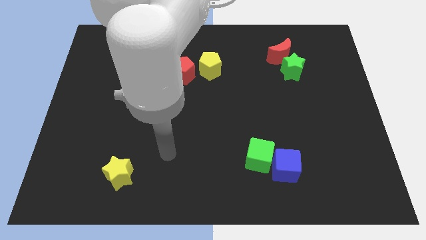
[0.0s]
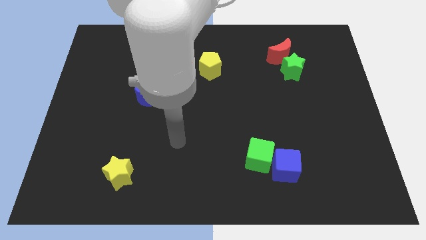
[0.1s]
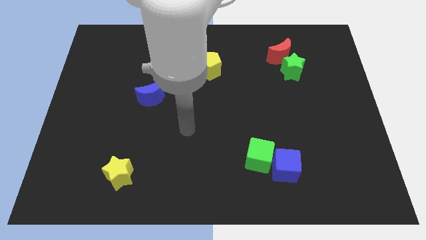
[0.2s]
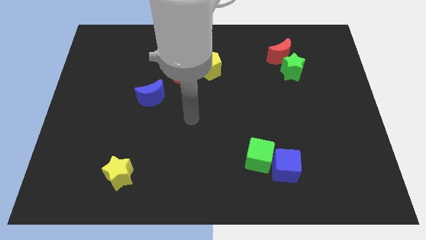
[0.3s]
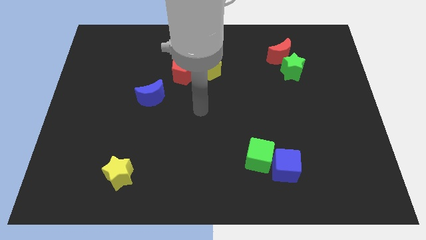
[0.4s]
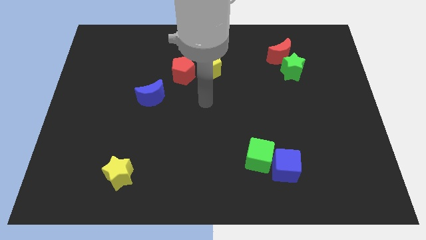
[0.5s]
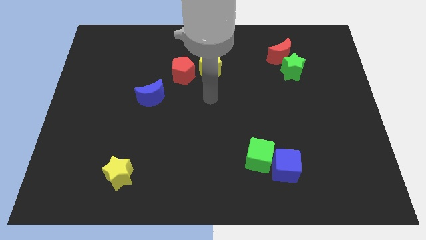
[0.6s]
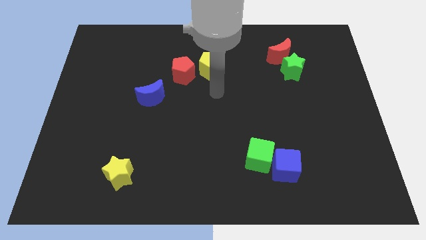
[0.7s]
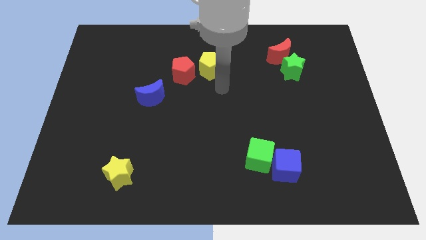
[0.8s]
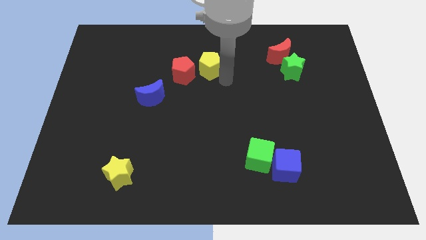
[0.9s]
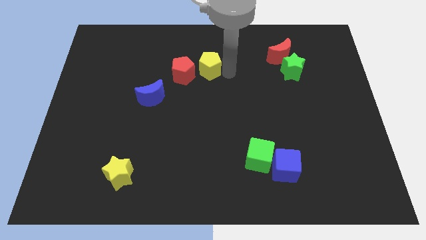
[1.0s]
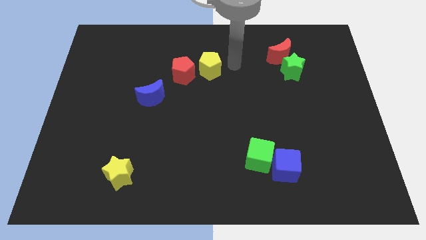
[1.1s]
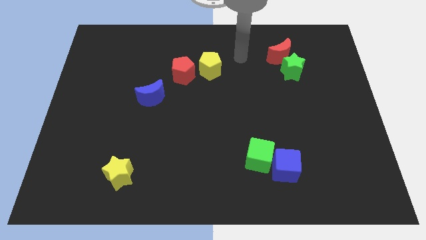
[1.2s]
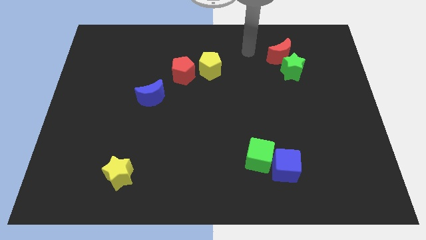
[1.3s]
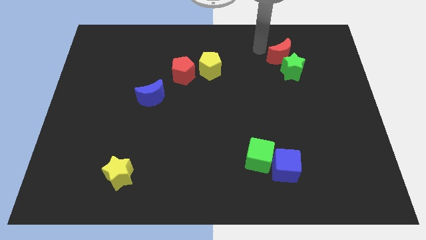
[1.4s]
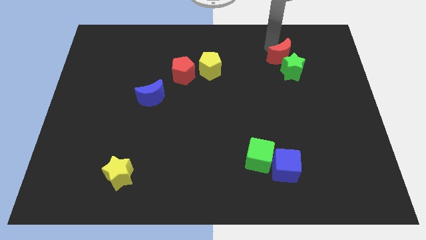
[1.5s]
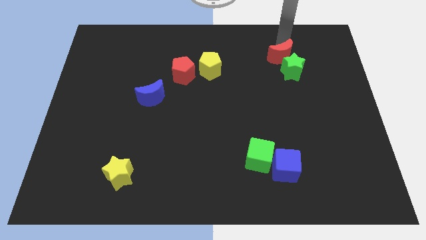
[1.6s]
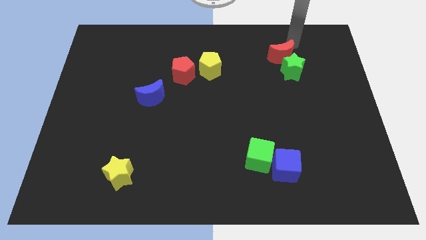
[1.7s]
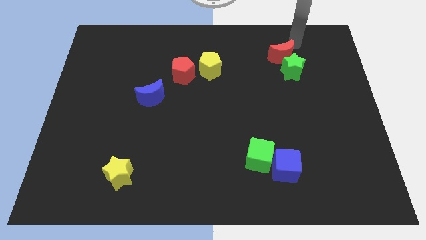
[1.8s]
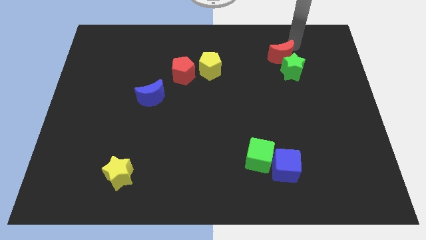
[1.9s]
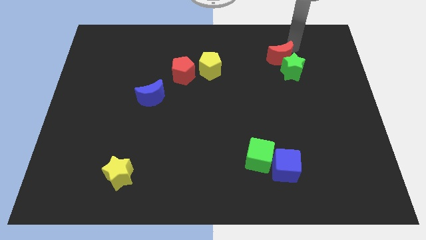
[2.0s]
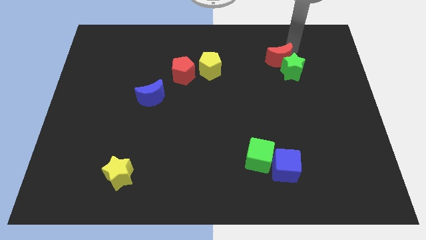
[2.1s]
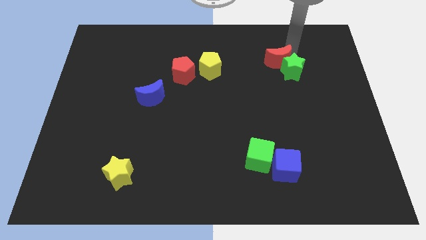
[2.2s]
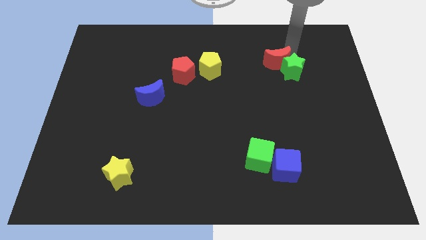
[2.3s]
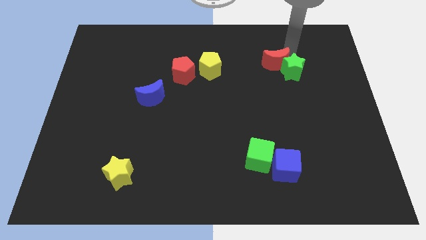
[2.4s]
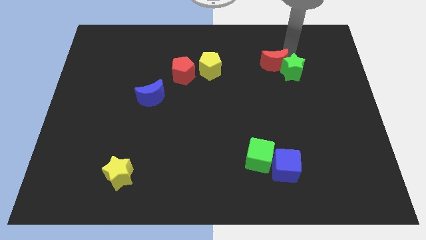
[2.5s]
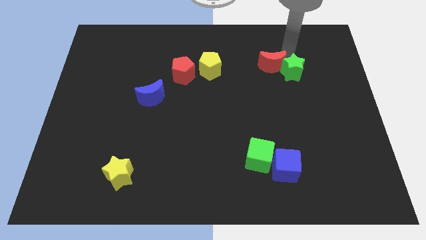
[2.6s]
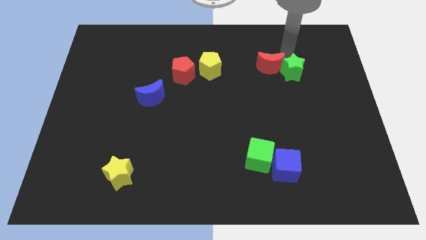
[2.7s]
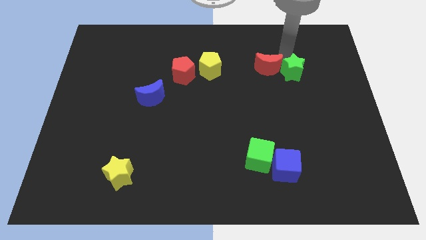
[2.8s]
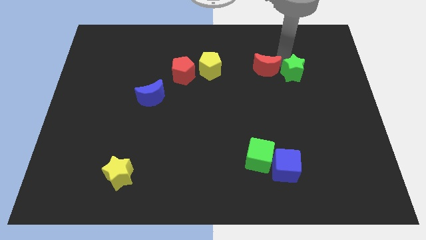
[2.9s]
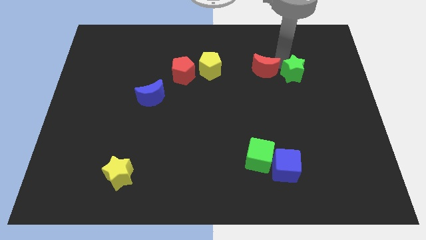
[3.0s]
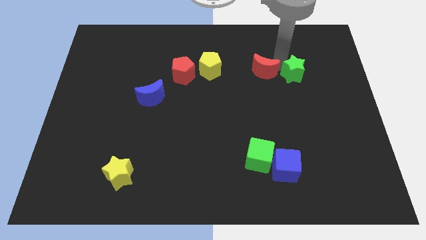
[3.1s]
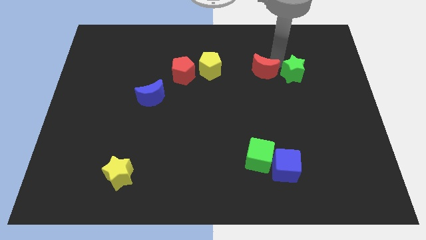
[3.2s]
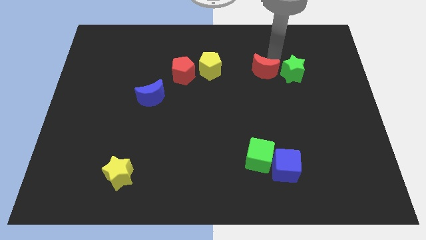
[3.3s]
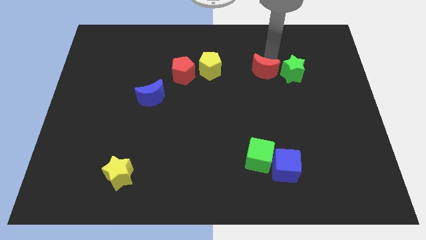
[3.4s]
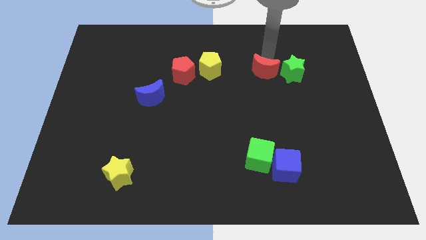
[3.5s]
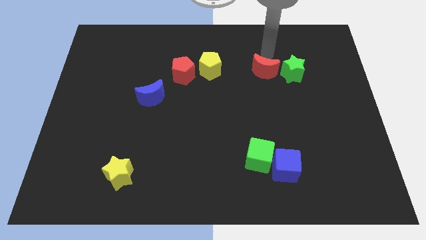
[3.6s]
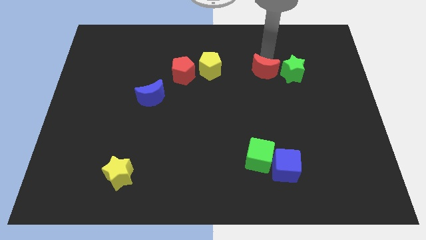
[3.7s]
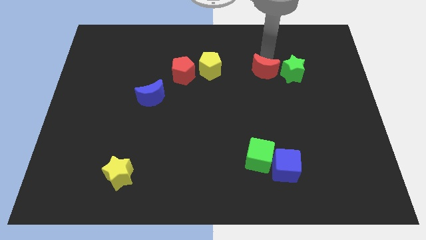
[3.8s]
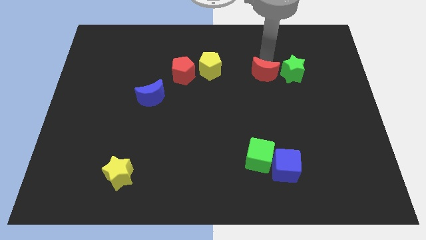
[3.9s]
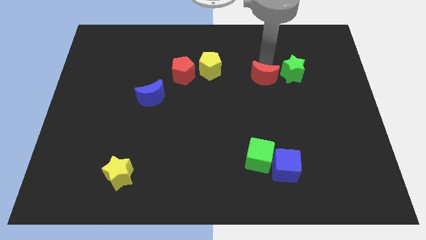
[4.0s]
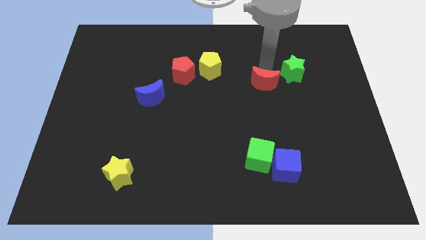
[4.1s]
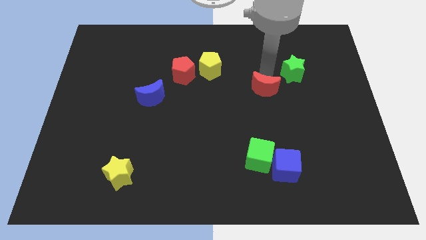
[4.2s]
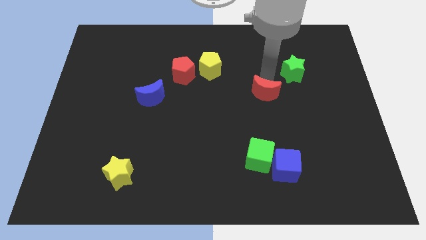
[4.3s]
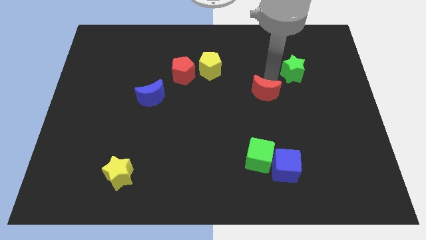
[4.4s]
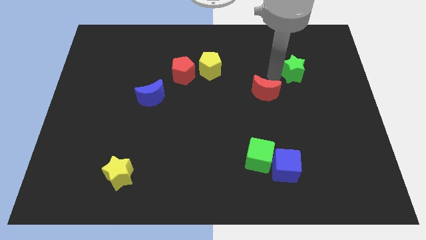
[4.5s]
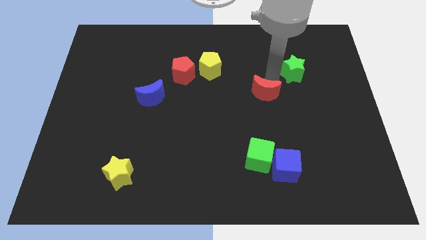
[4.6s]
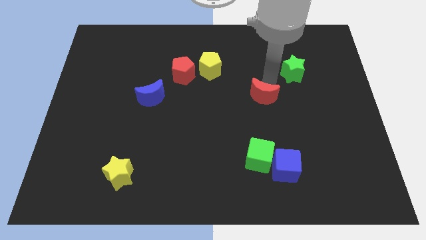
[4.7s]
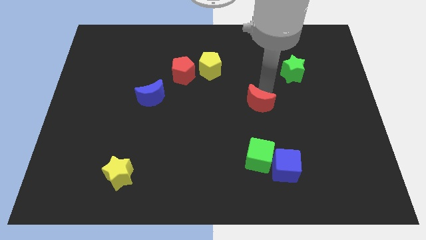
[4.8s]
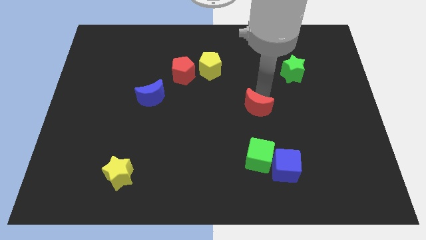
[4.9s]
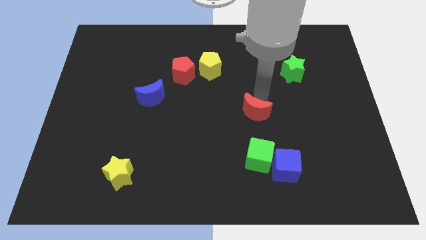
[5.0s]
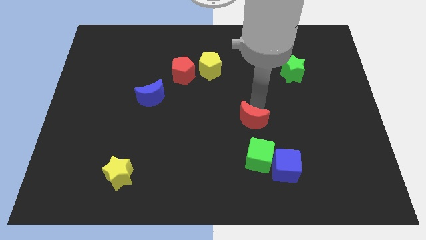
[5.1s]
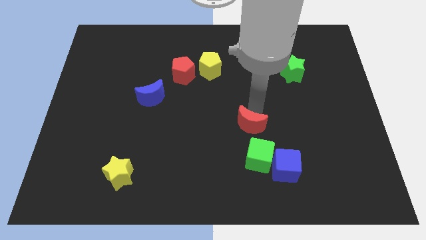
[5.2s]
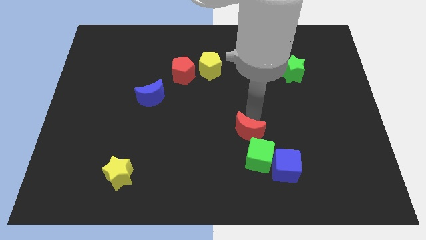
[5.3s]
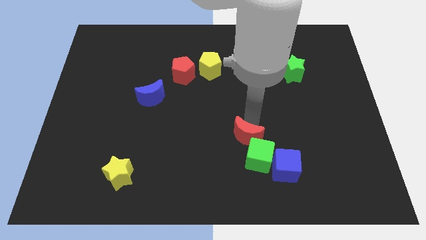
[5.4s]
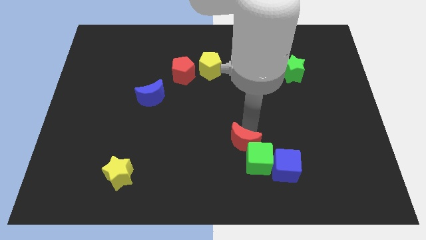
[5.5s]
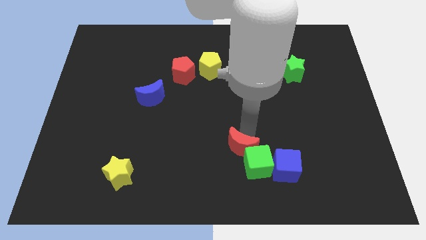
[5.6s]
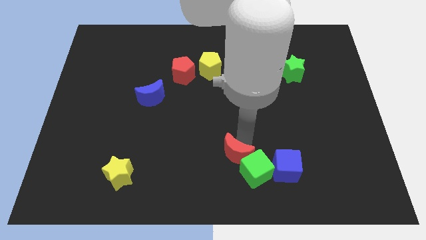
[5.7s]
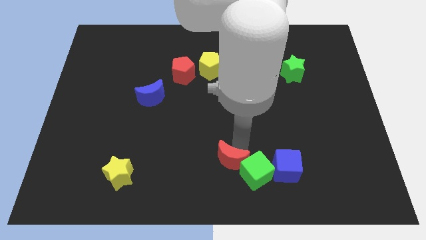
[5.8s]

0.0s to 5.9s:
move the red moon to the bottom

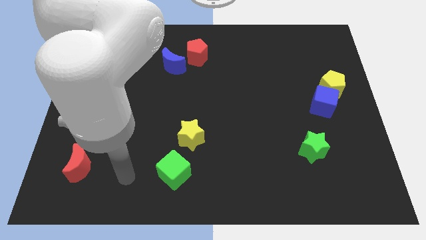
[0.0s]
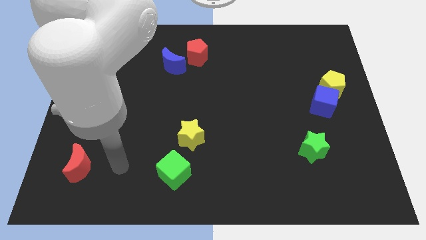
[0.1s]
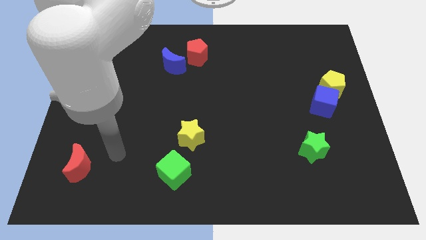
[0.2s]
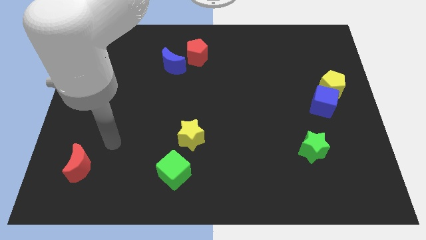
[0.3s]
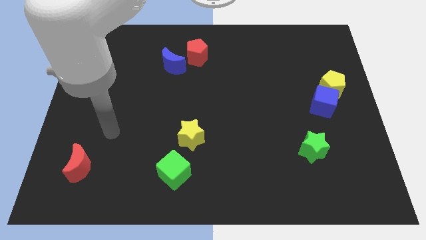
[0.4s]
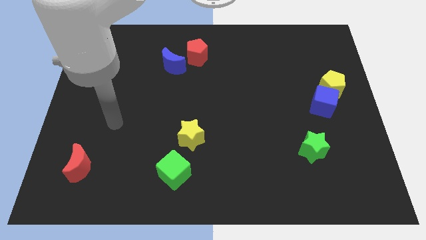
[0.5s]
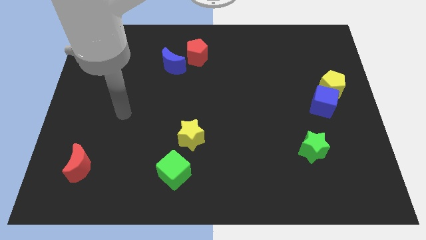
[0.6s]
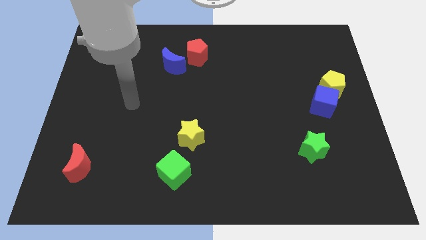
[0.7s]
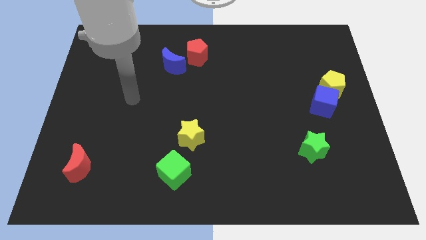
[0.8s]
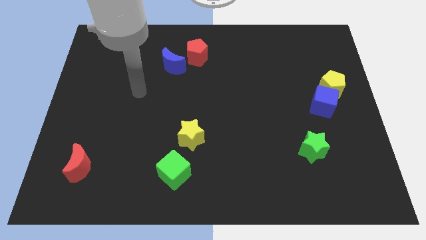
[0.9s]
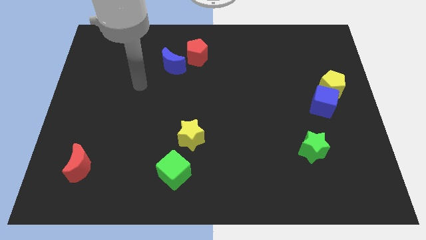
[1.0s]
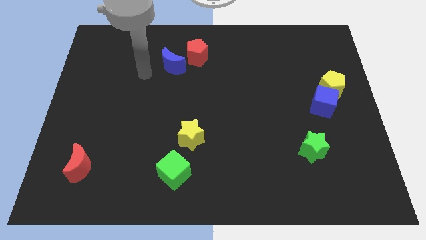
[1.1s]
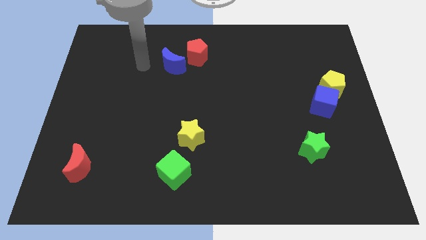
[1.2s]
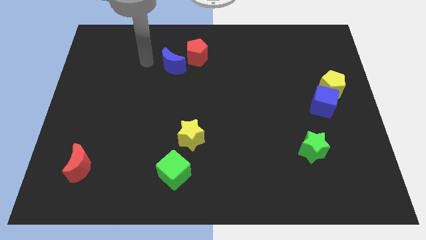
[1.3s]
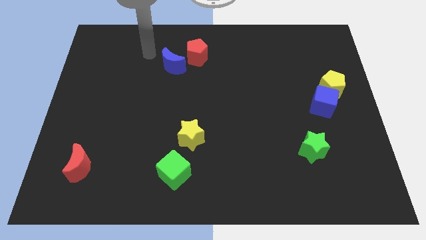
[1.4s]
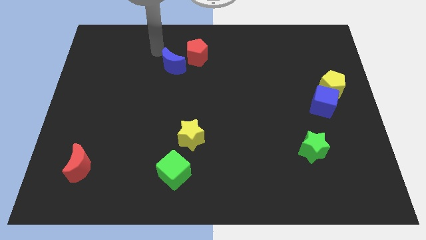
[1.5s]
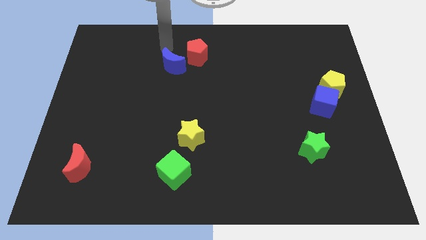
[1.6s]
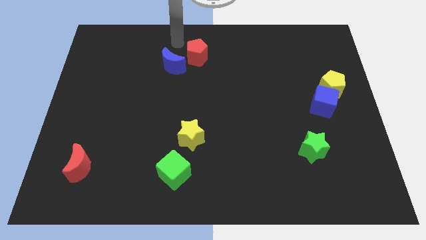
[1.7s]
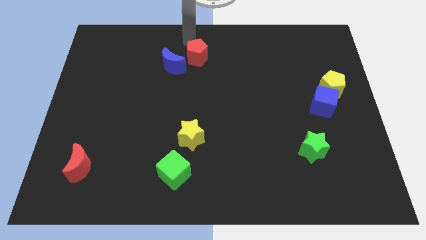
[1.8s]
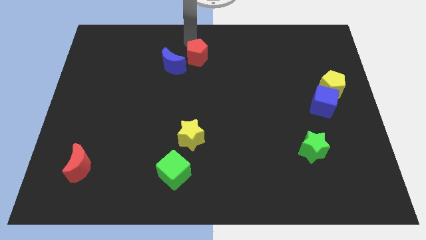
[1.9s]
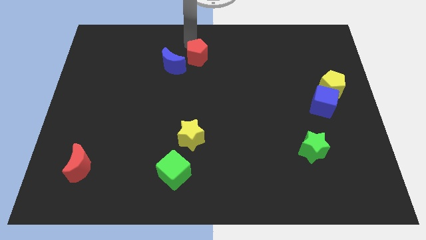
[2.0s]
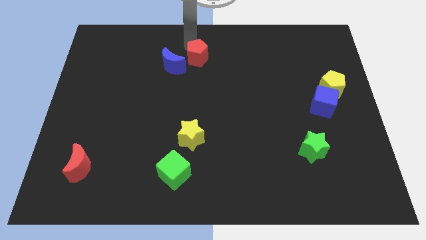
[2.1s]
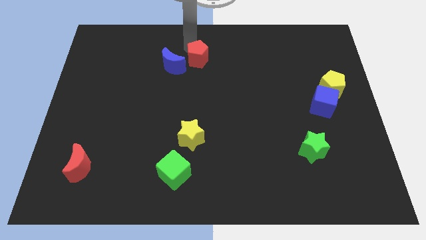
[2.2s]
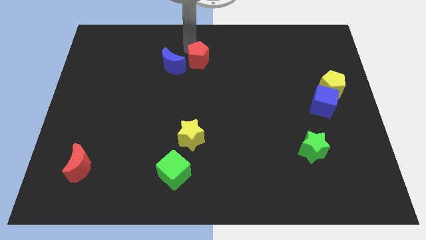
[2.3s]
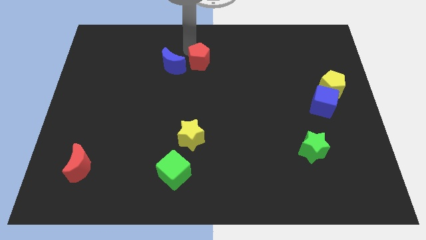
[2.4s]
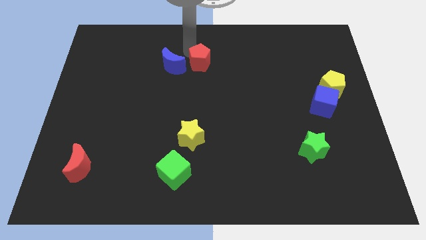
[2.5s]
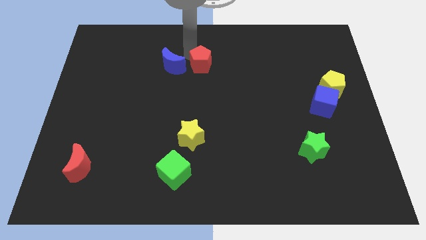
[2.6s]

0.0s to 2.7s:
put the red pentagon to the center
